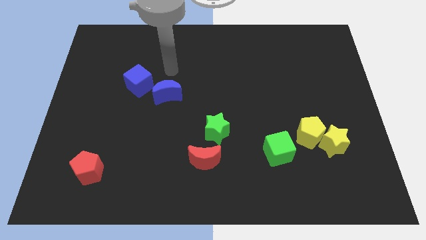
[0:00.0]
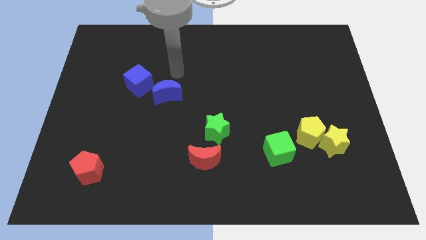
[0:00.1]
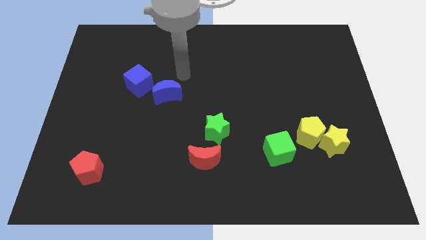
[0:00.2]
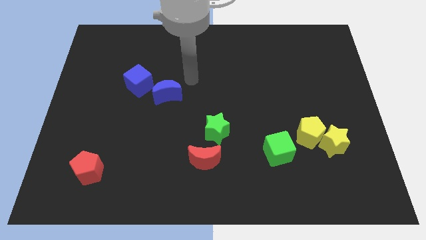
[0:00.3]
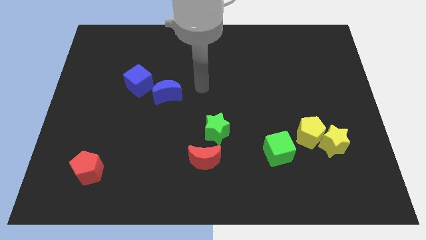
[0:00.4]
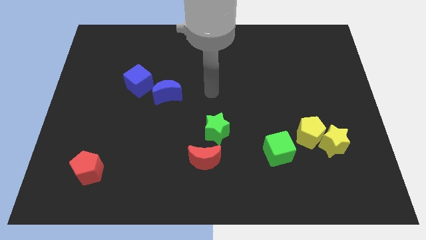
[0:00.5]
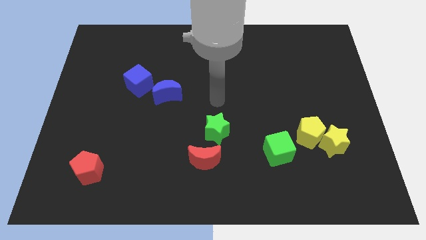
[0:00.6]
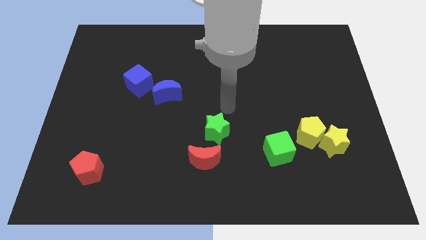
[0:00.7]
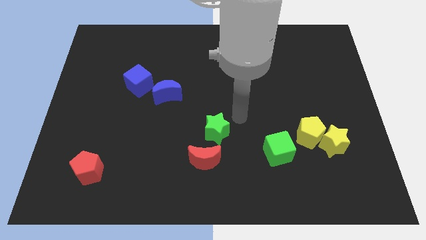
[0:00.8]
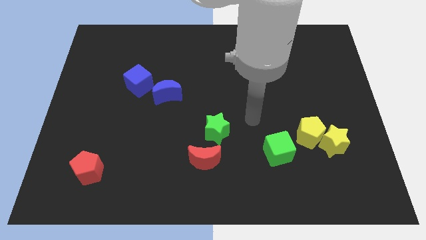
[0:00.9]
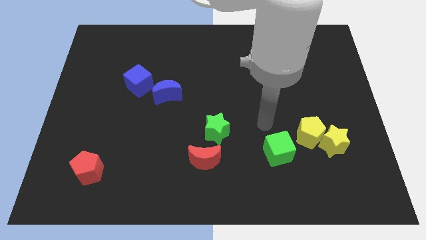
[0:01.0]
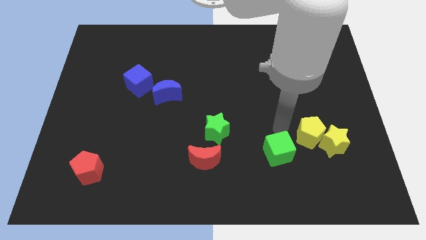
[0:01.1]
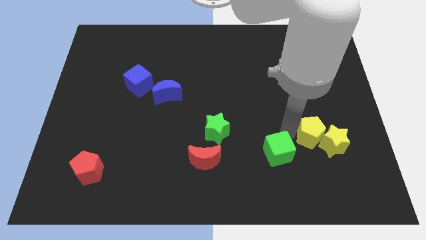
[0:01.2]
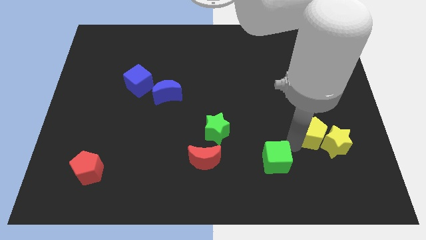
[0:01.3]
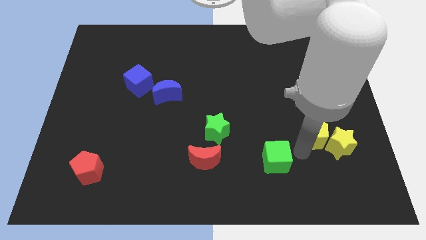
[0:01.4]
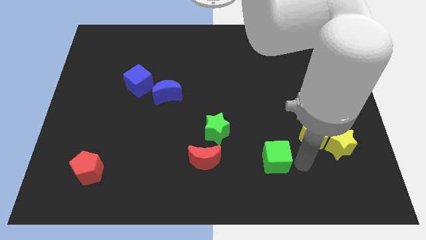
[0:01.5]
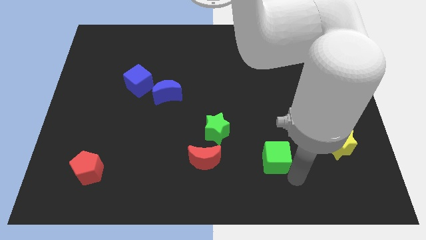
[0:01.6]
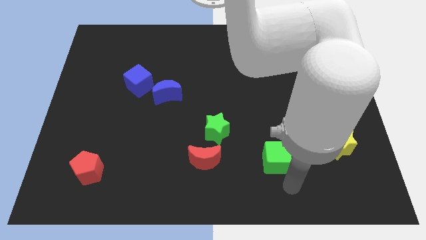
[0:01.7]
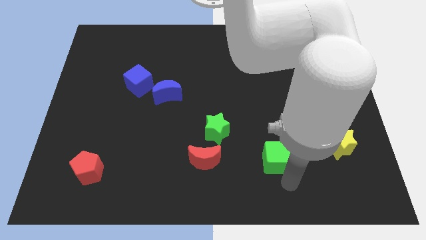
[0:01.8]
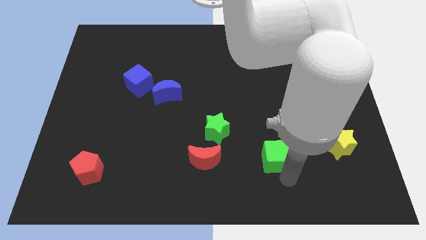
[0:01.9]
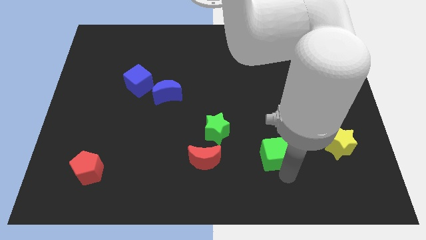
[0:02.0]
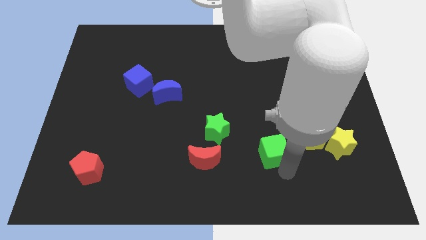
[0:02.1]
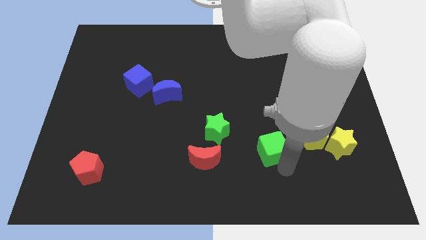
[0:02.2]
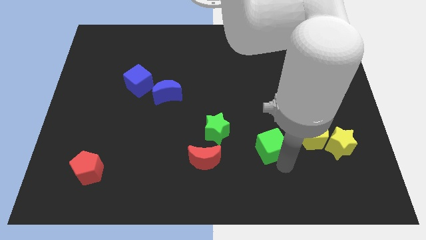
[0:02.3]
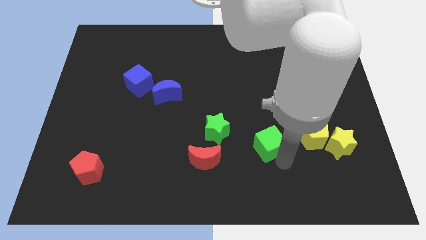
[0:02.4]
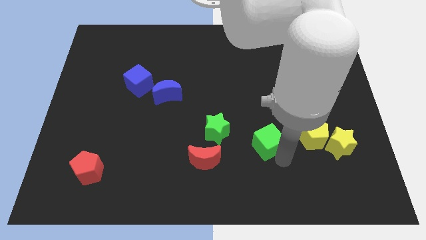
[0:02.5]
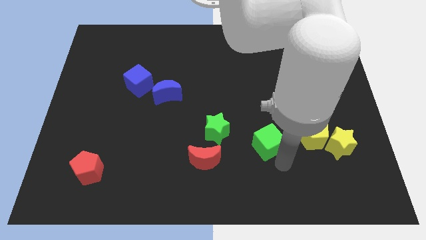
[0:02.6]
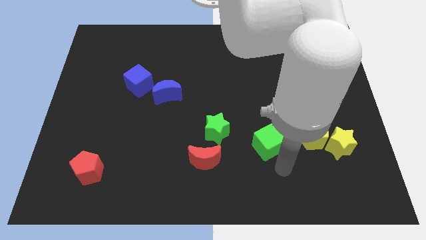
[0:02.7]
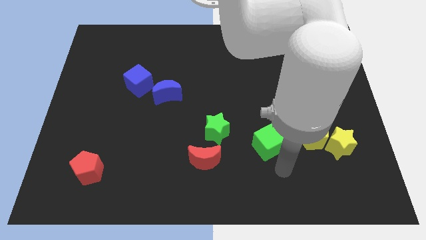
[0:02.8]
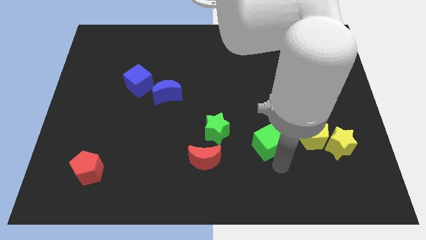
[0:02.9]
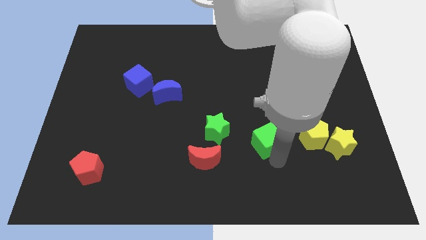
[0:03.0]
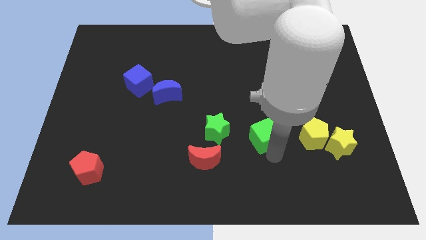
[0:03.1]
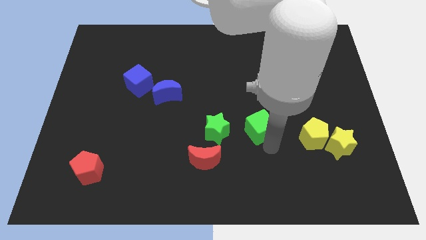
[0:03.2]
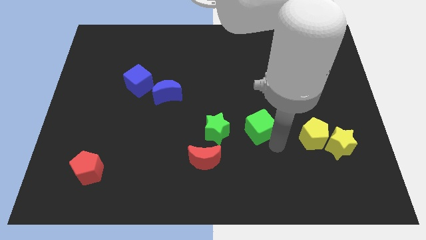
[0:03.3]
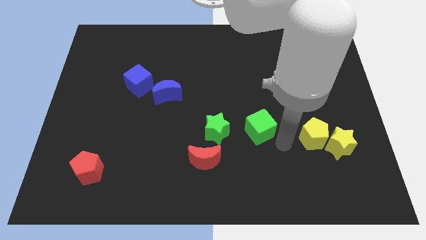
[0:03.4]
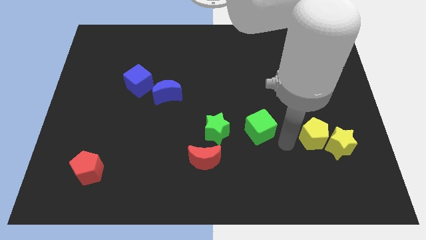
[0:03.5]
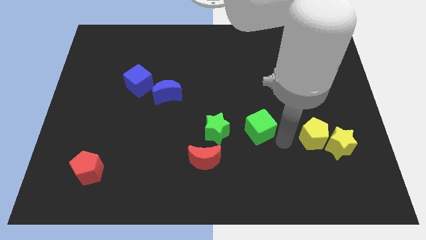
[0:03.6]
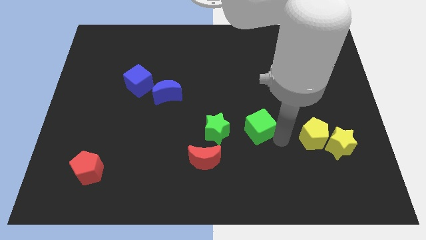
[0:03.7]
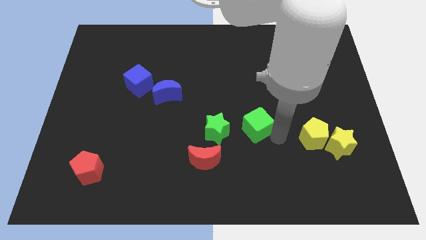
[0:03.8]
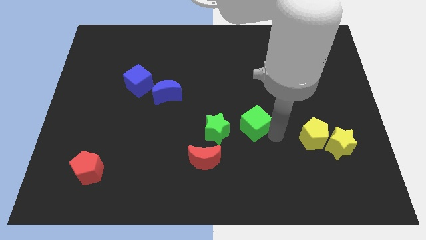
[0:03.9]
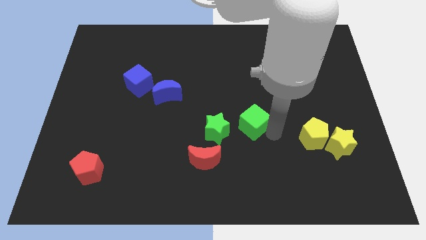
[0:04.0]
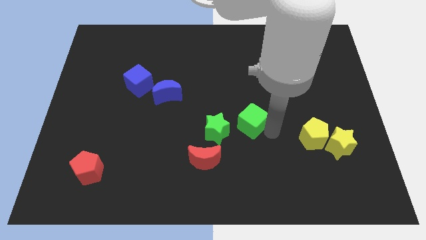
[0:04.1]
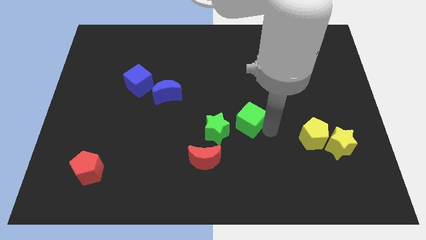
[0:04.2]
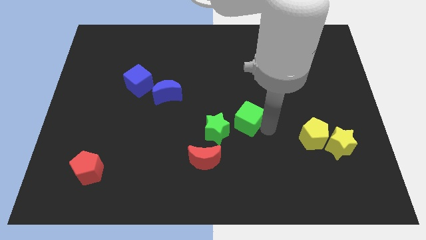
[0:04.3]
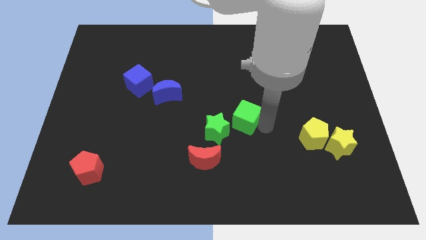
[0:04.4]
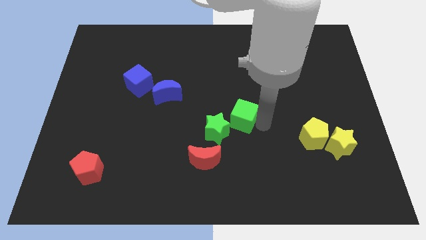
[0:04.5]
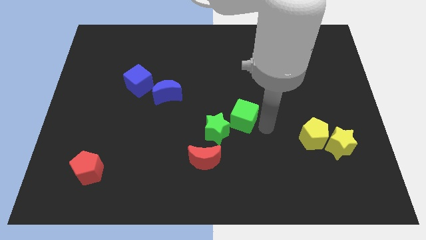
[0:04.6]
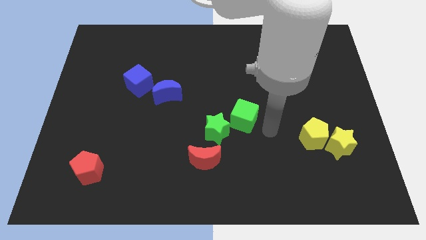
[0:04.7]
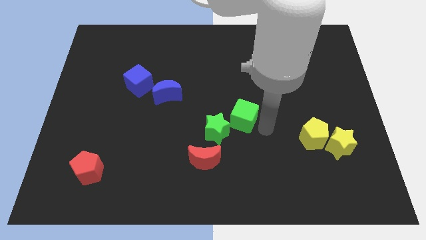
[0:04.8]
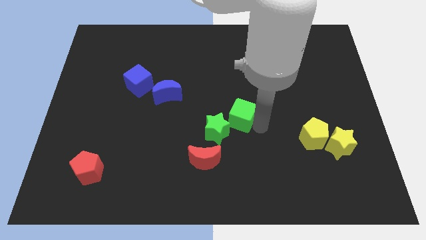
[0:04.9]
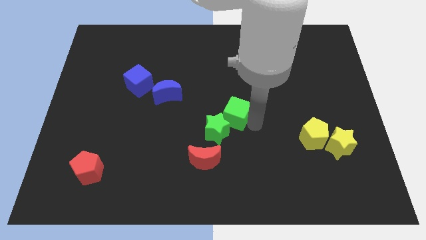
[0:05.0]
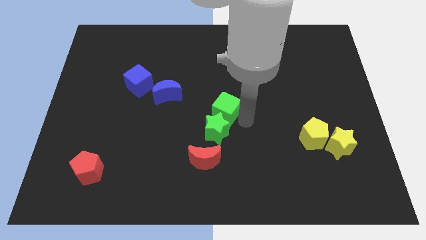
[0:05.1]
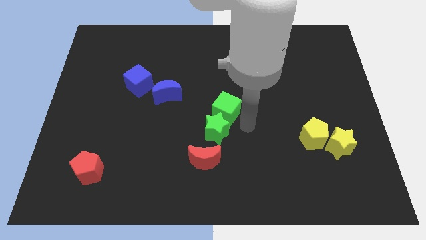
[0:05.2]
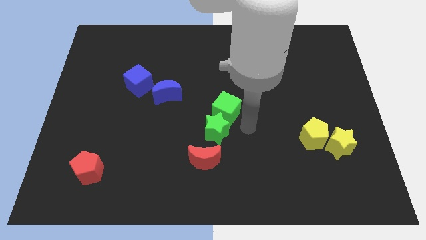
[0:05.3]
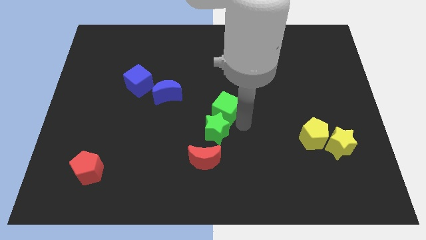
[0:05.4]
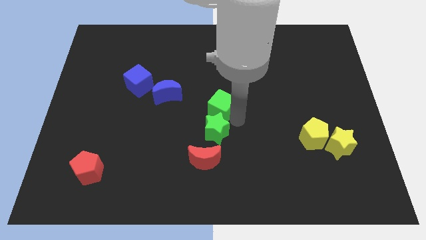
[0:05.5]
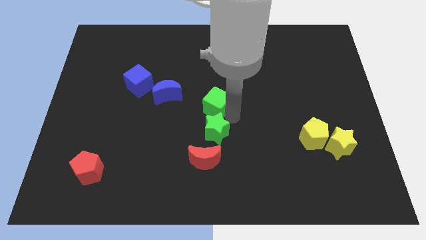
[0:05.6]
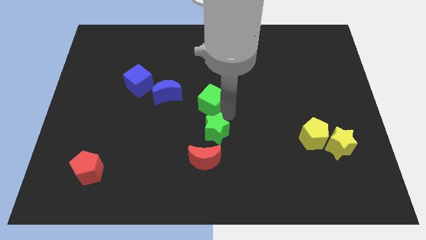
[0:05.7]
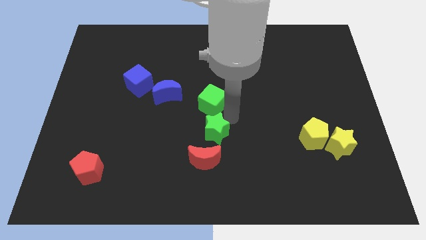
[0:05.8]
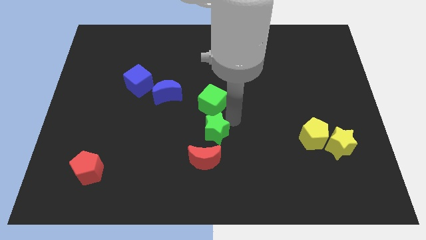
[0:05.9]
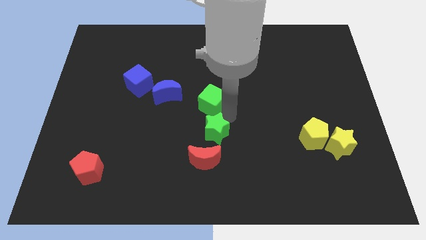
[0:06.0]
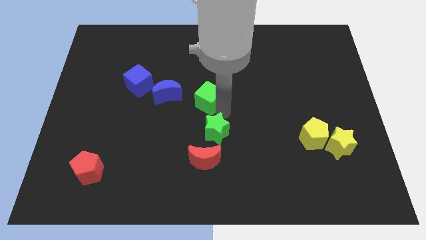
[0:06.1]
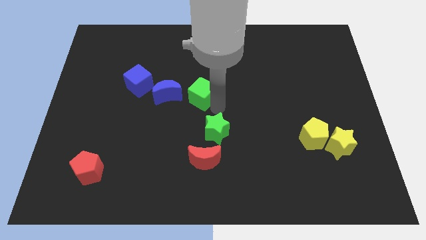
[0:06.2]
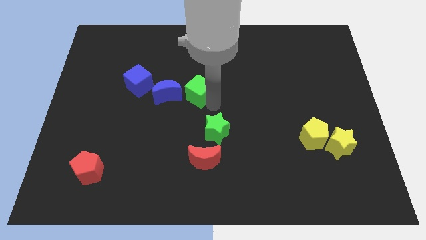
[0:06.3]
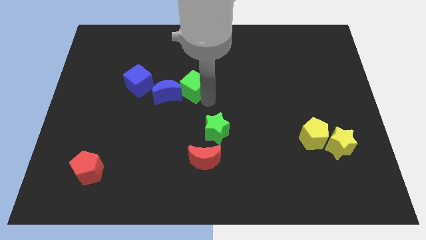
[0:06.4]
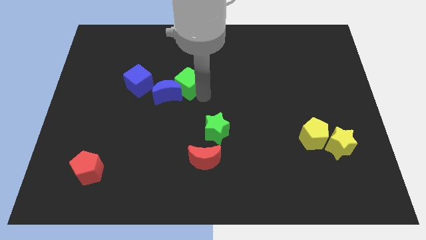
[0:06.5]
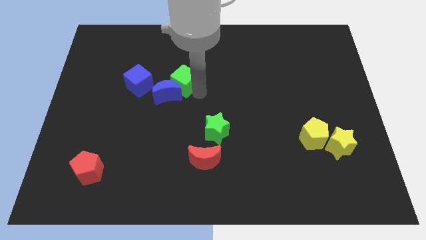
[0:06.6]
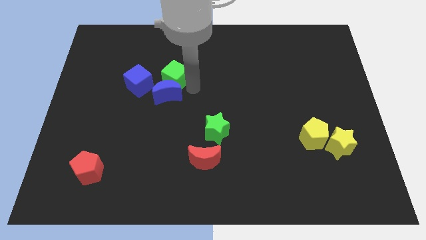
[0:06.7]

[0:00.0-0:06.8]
put the green cube diagonally up and to the left of the blue moon
